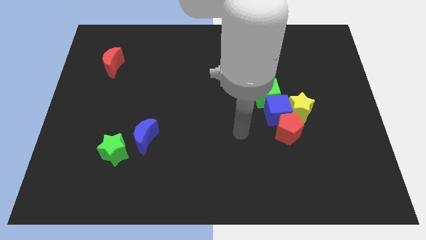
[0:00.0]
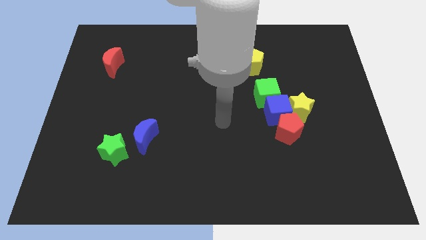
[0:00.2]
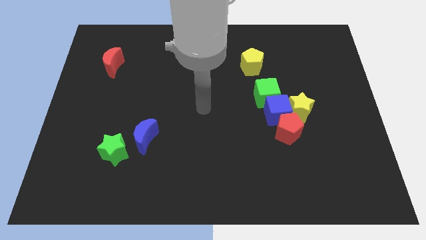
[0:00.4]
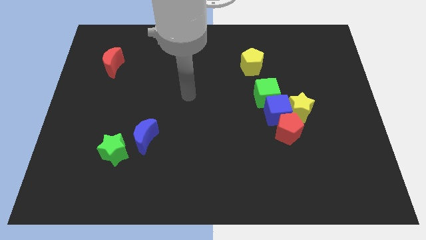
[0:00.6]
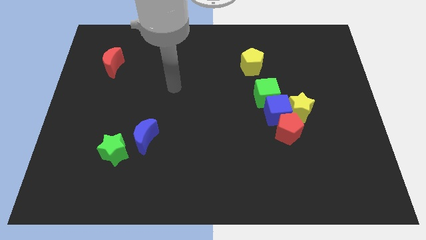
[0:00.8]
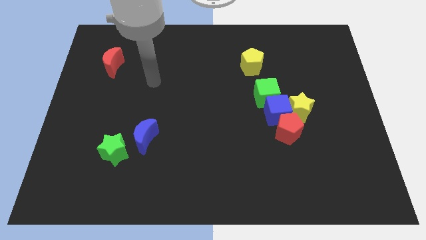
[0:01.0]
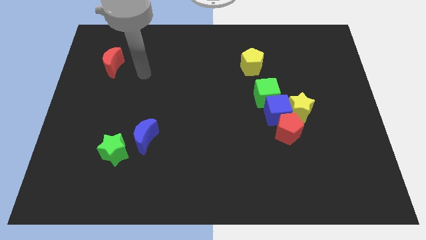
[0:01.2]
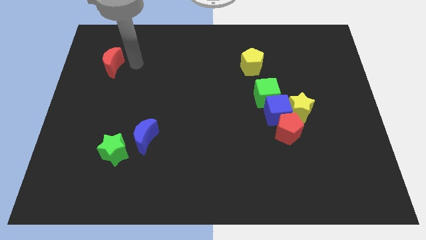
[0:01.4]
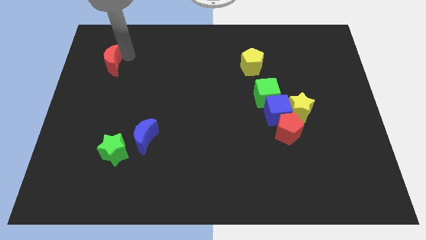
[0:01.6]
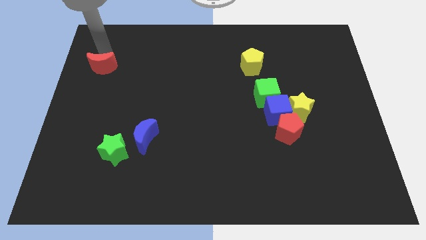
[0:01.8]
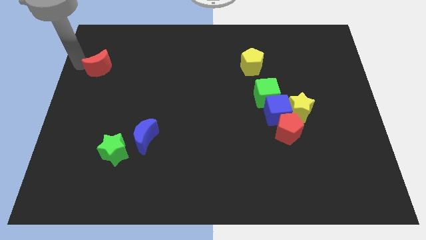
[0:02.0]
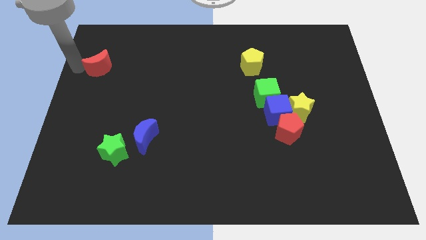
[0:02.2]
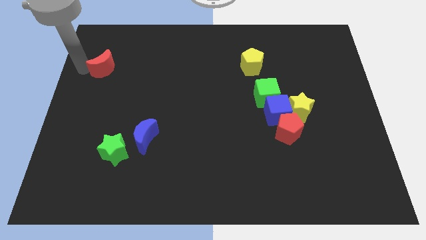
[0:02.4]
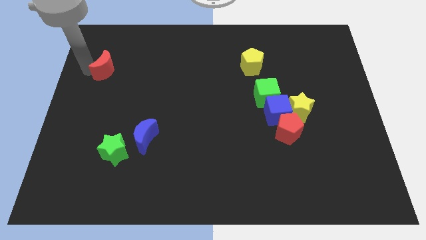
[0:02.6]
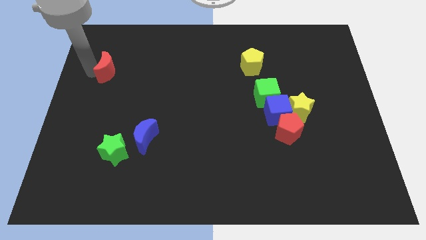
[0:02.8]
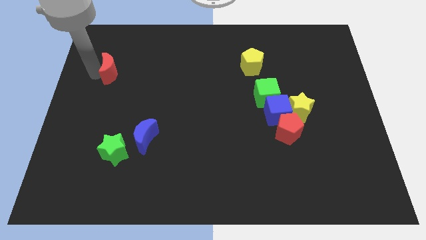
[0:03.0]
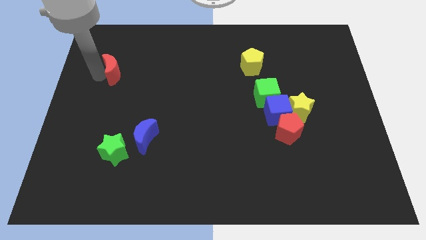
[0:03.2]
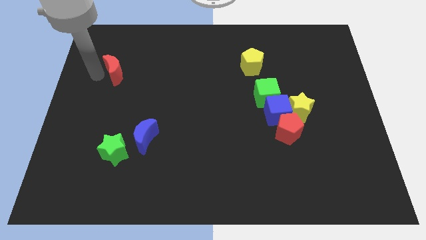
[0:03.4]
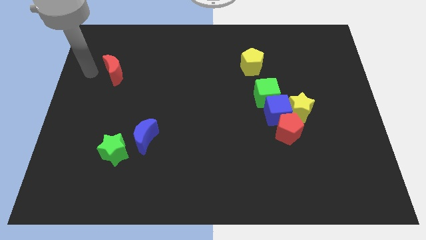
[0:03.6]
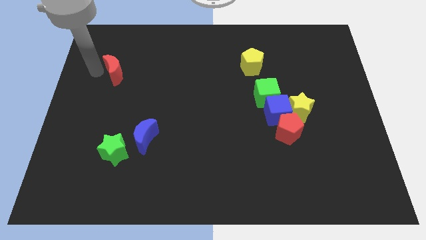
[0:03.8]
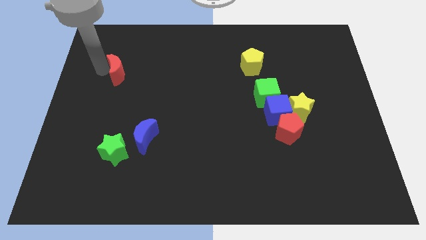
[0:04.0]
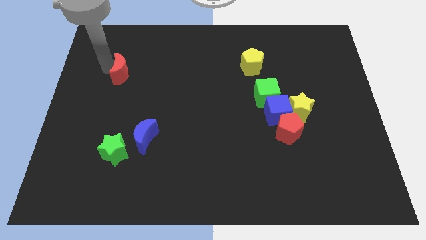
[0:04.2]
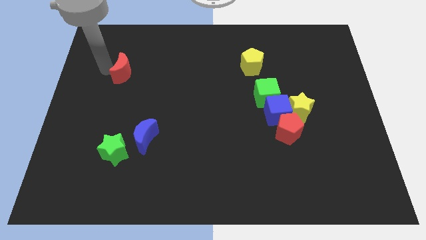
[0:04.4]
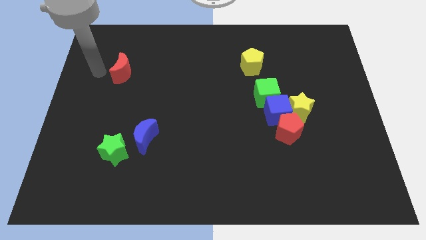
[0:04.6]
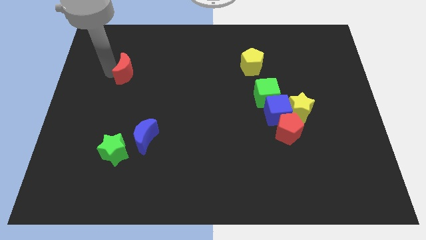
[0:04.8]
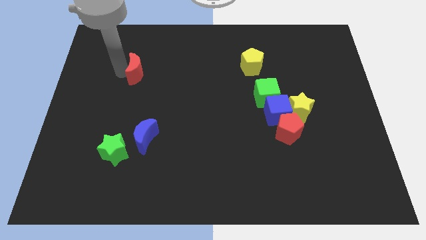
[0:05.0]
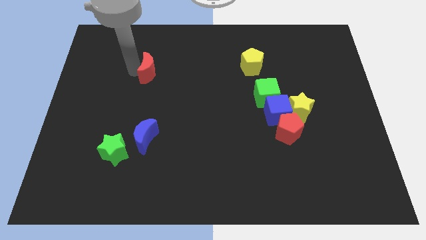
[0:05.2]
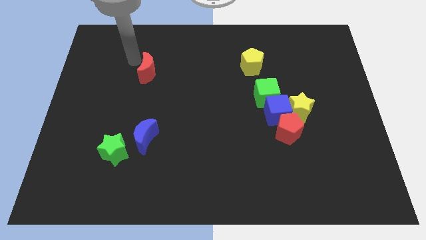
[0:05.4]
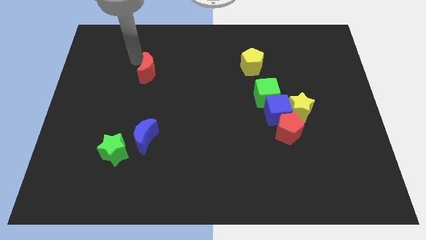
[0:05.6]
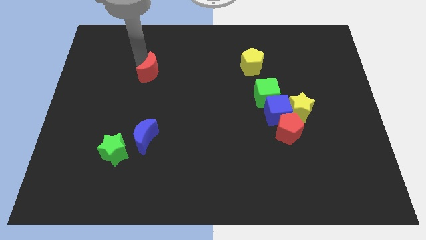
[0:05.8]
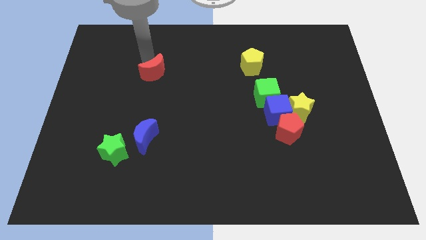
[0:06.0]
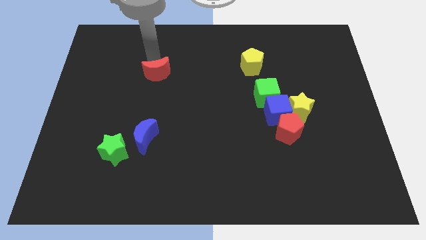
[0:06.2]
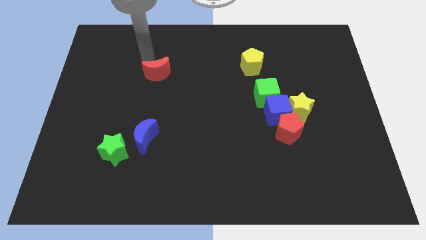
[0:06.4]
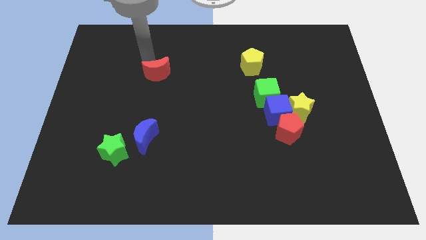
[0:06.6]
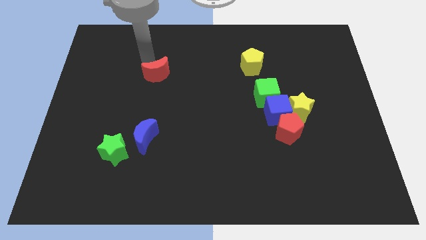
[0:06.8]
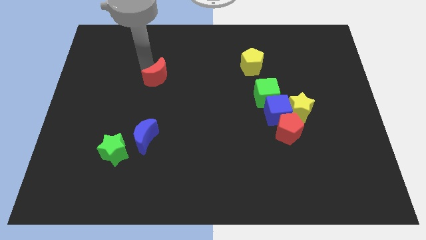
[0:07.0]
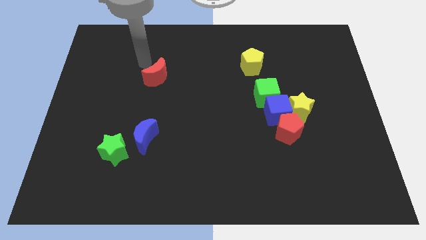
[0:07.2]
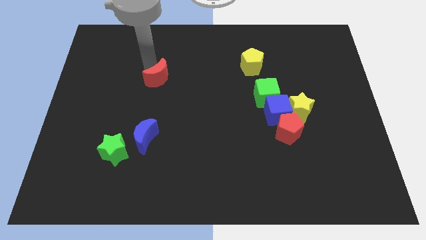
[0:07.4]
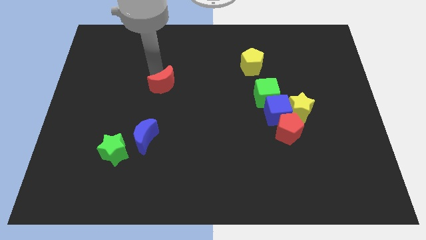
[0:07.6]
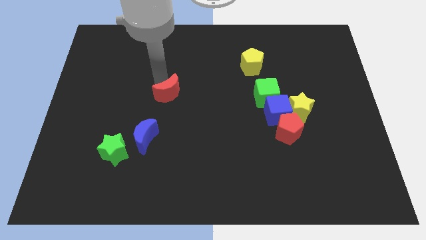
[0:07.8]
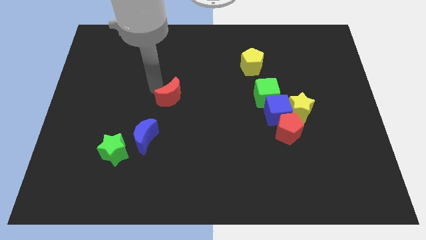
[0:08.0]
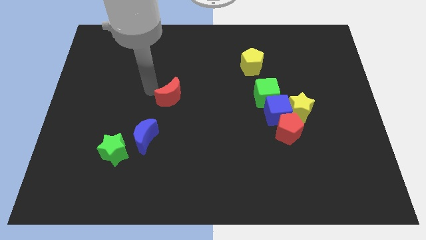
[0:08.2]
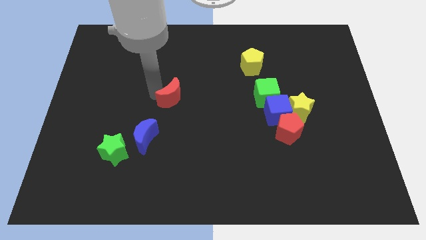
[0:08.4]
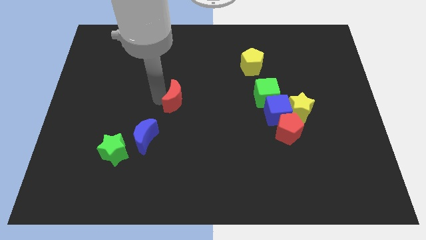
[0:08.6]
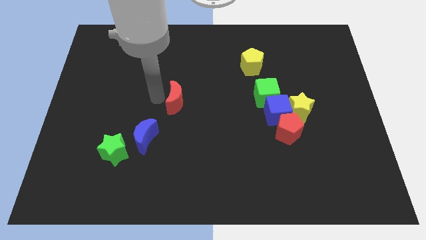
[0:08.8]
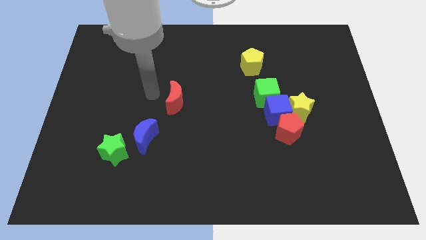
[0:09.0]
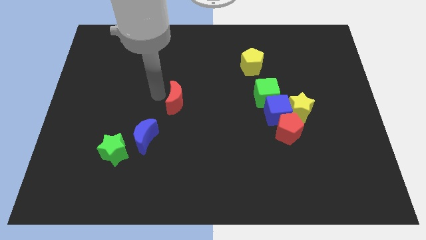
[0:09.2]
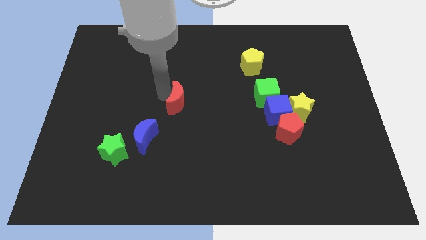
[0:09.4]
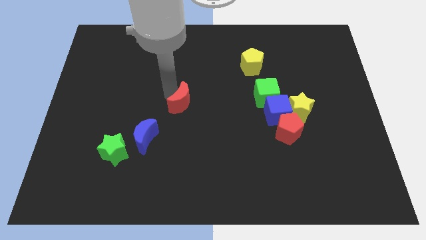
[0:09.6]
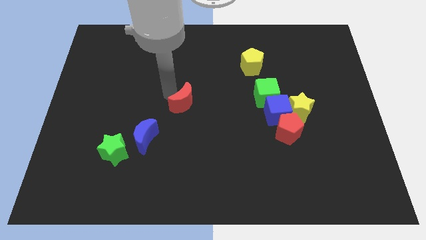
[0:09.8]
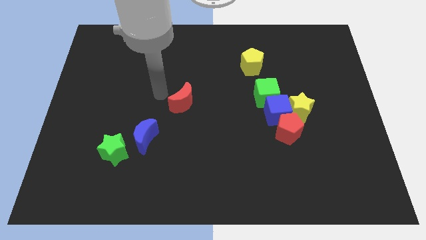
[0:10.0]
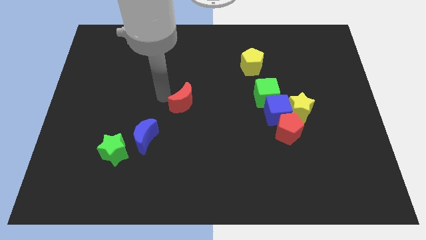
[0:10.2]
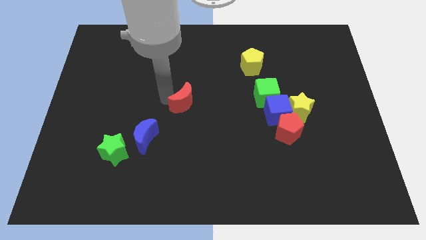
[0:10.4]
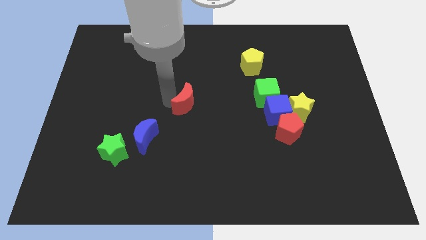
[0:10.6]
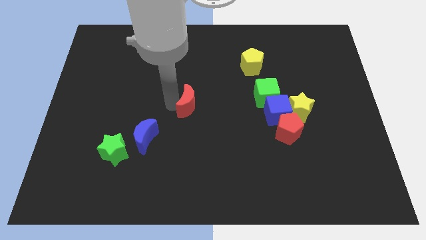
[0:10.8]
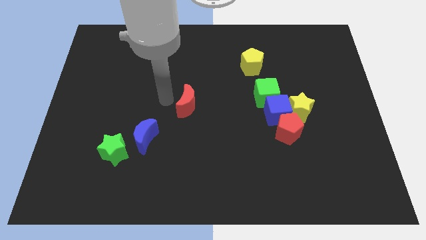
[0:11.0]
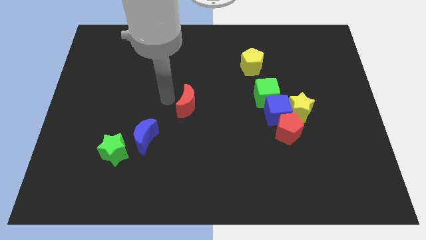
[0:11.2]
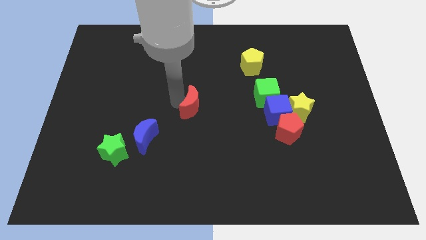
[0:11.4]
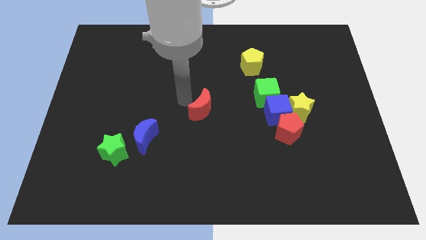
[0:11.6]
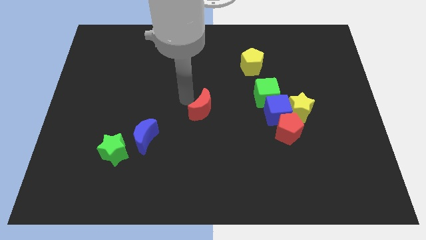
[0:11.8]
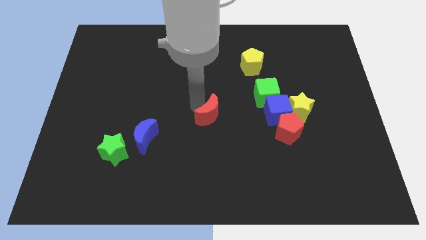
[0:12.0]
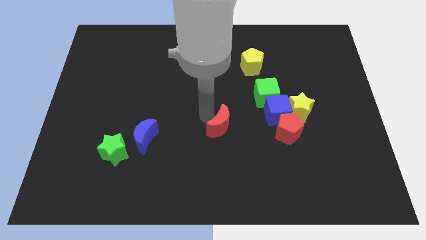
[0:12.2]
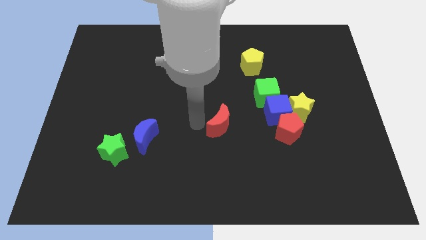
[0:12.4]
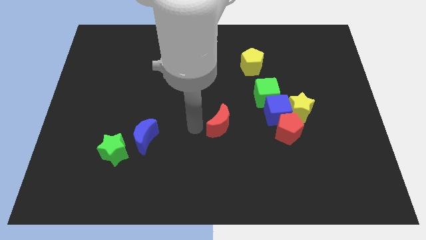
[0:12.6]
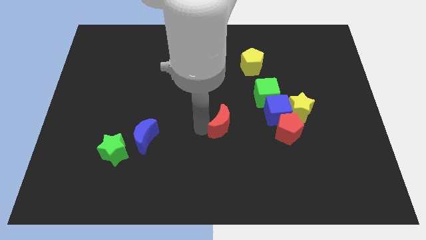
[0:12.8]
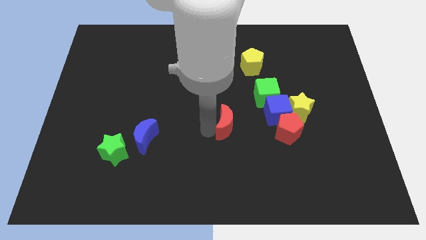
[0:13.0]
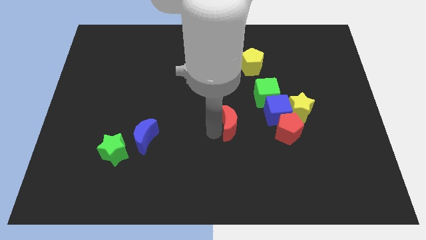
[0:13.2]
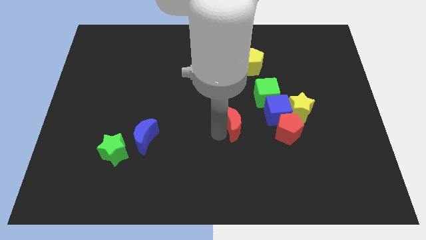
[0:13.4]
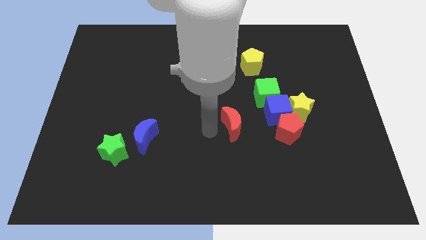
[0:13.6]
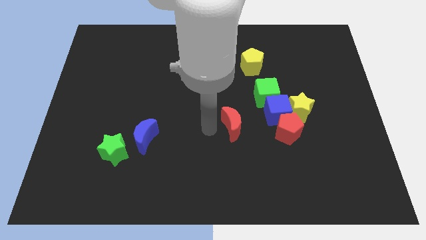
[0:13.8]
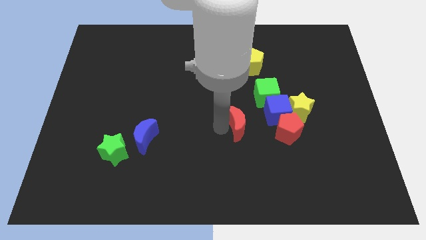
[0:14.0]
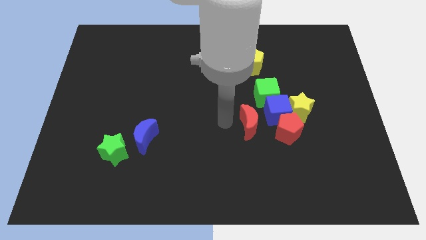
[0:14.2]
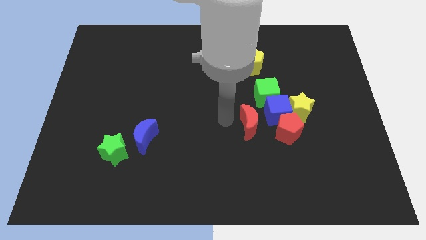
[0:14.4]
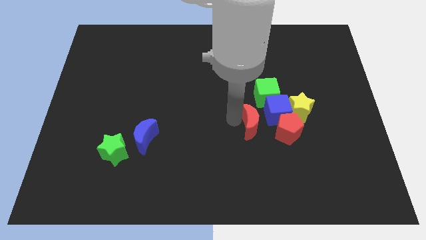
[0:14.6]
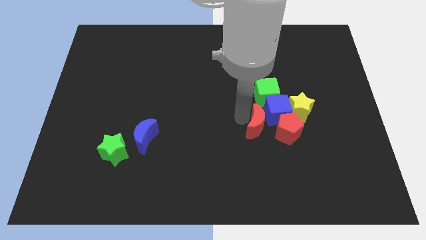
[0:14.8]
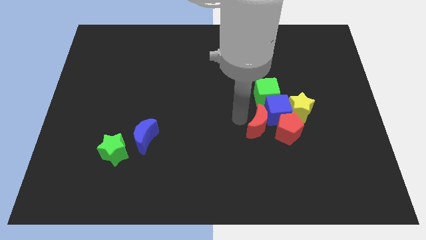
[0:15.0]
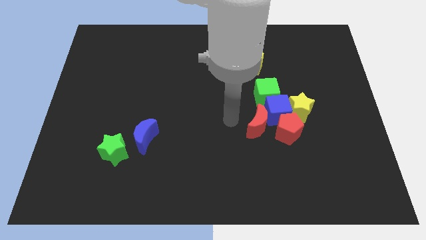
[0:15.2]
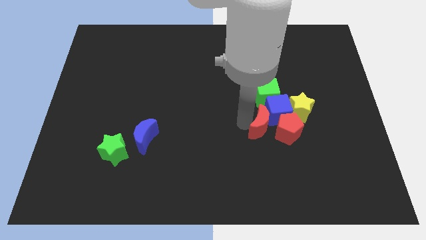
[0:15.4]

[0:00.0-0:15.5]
push the red moon close to the red pentagon
